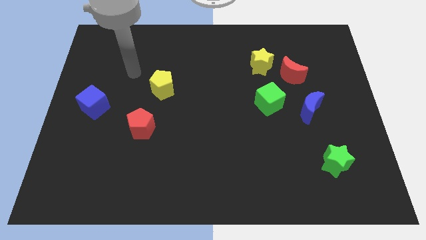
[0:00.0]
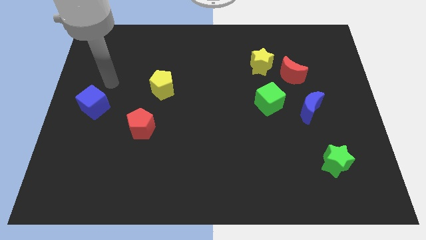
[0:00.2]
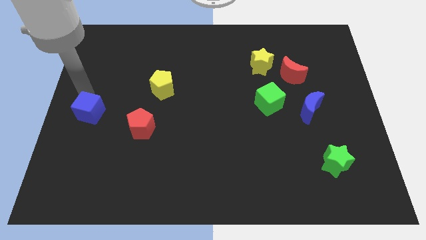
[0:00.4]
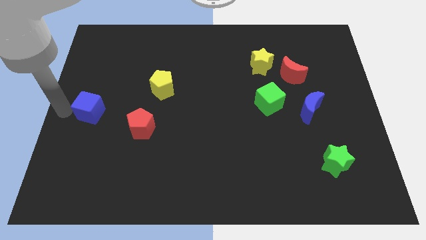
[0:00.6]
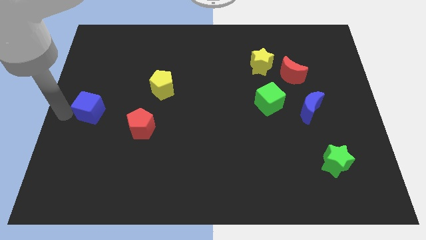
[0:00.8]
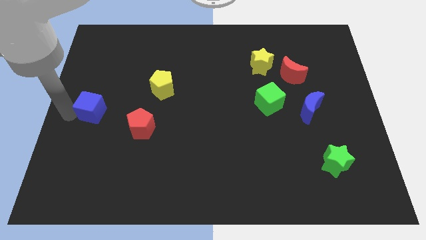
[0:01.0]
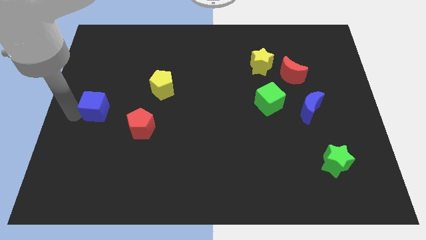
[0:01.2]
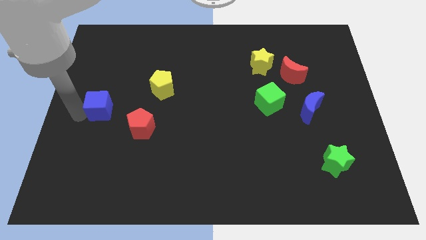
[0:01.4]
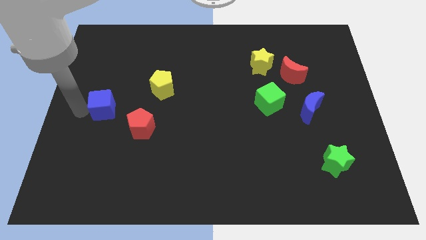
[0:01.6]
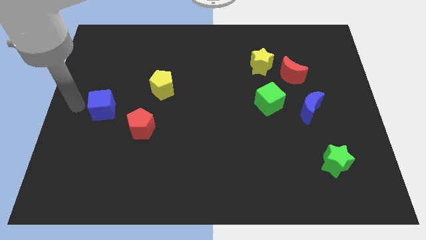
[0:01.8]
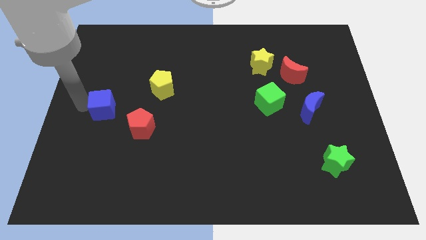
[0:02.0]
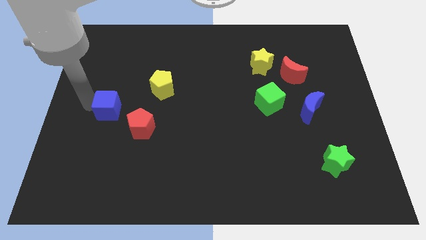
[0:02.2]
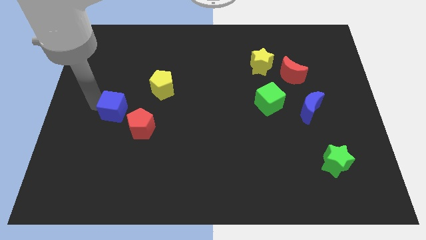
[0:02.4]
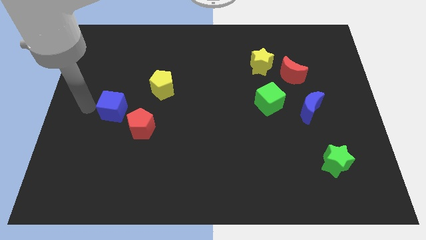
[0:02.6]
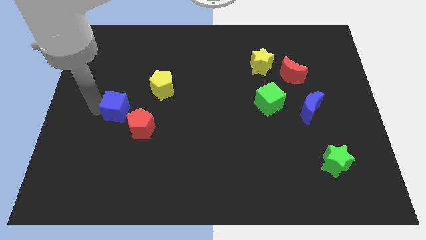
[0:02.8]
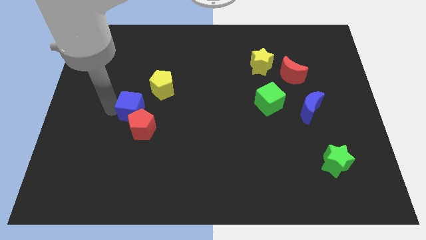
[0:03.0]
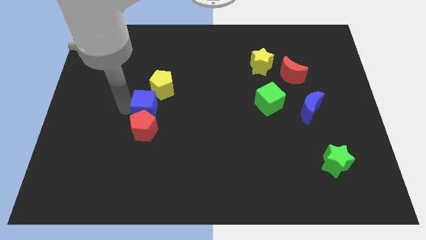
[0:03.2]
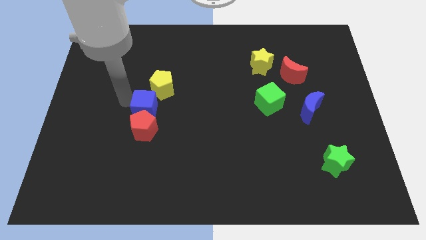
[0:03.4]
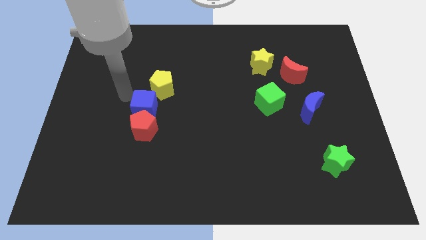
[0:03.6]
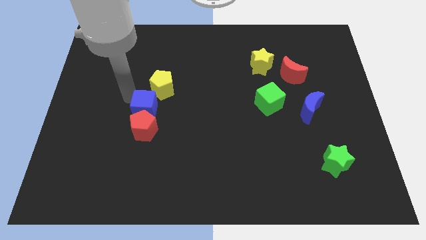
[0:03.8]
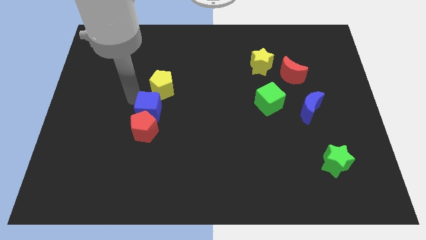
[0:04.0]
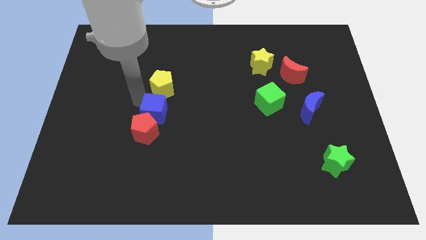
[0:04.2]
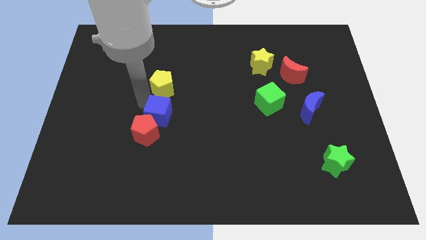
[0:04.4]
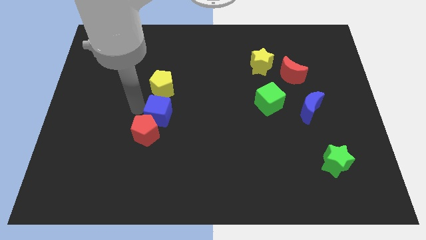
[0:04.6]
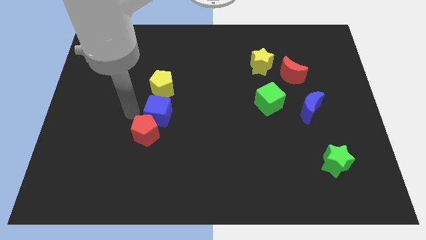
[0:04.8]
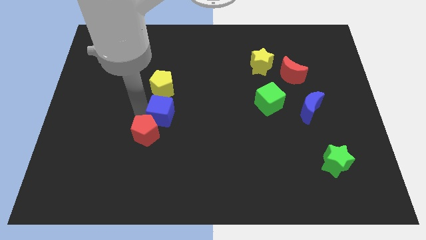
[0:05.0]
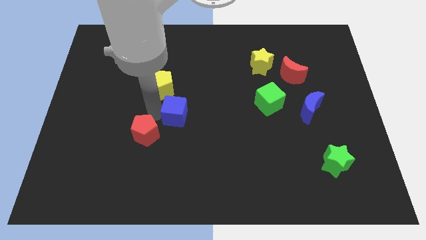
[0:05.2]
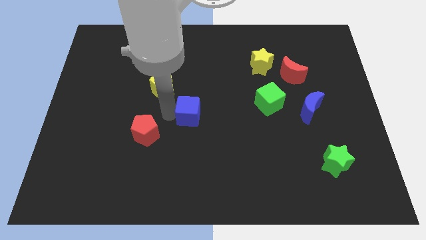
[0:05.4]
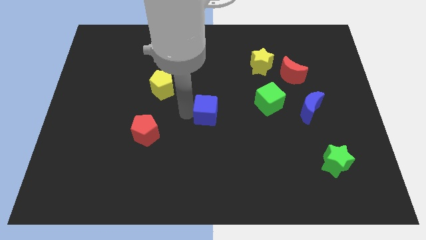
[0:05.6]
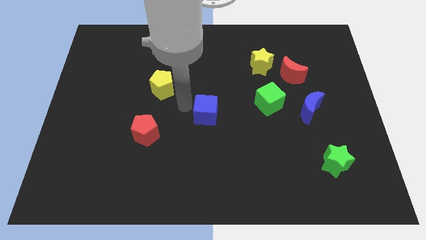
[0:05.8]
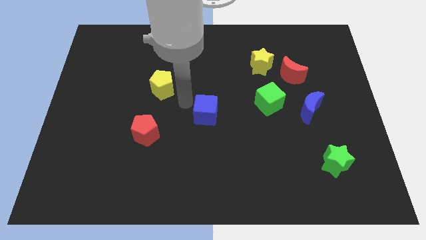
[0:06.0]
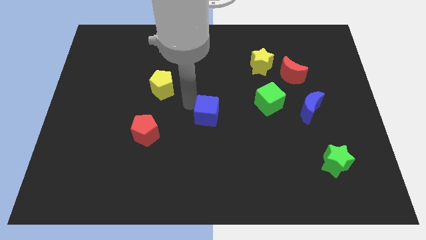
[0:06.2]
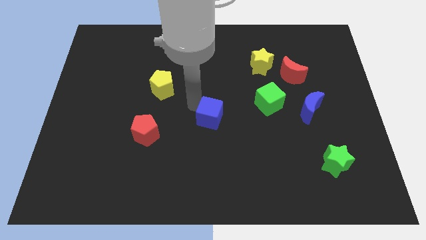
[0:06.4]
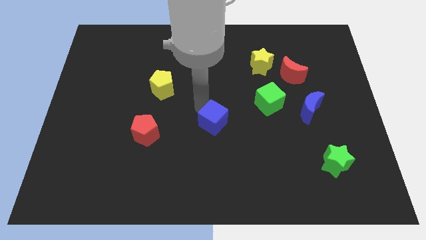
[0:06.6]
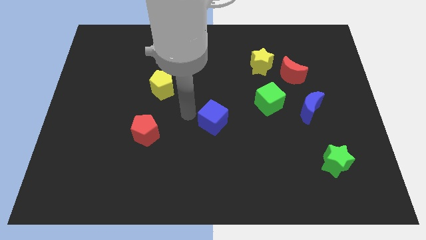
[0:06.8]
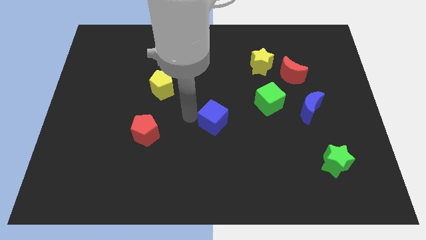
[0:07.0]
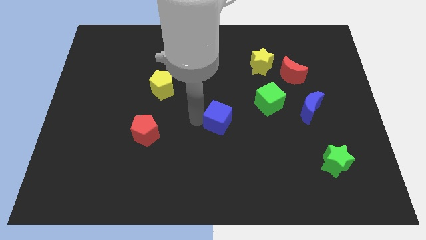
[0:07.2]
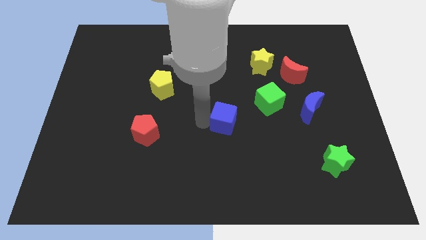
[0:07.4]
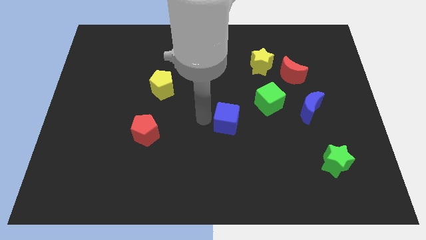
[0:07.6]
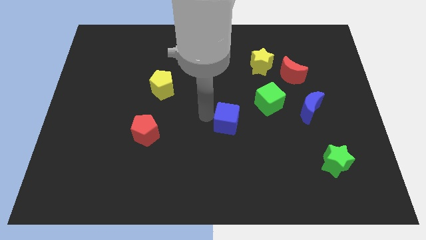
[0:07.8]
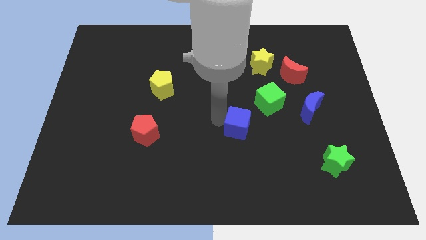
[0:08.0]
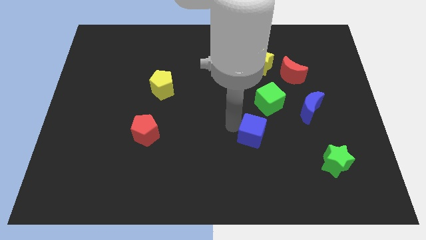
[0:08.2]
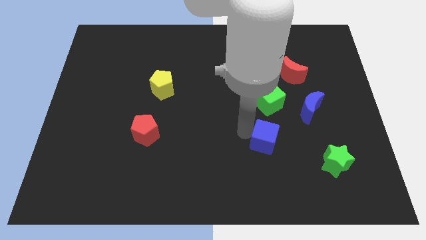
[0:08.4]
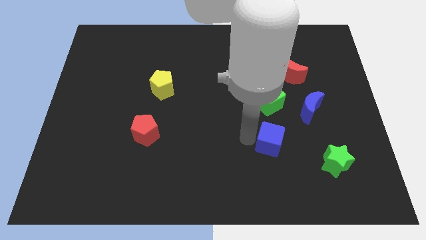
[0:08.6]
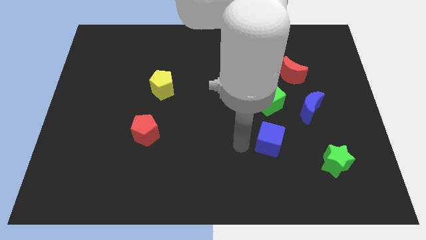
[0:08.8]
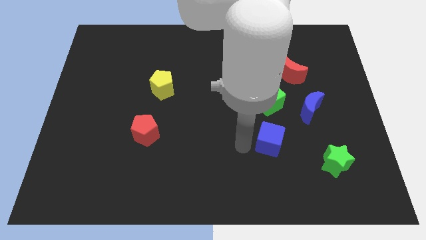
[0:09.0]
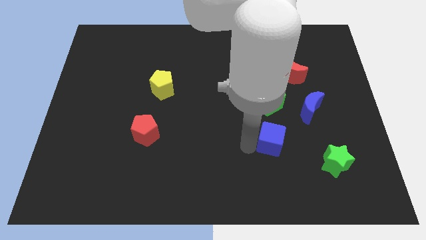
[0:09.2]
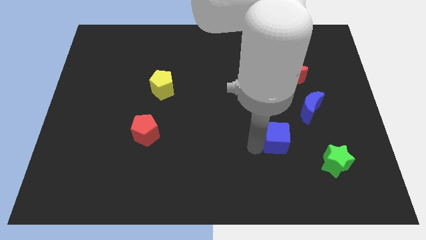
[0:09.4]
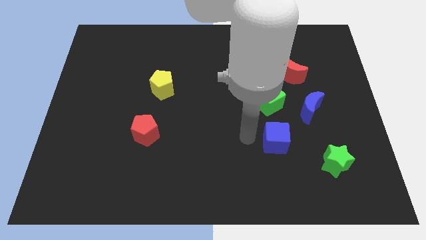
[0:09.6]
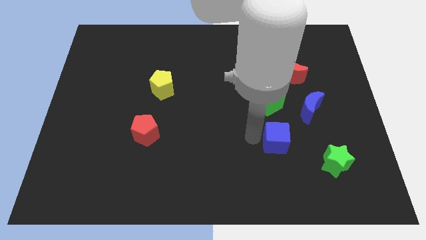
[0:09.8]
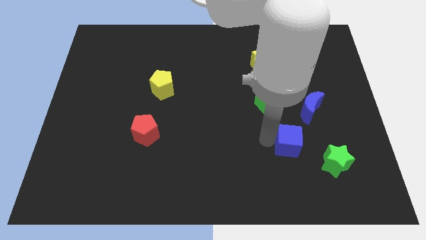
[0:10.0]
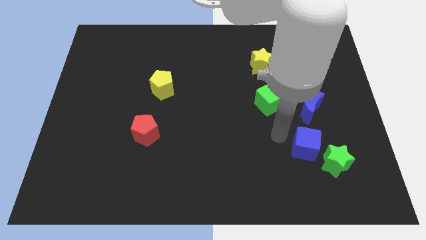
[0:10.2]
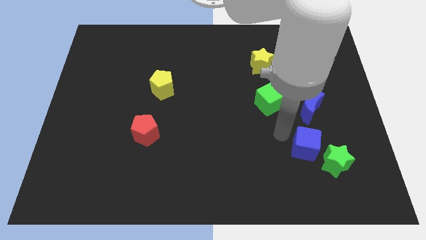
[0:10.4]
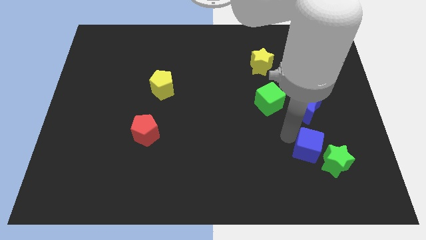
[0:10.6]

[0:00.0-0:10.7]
slide the blue cube to the green star

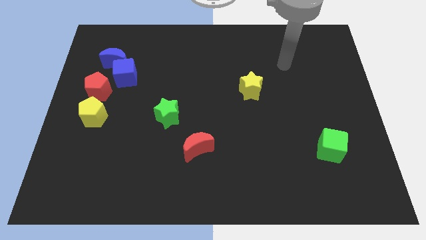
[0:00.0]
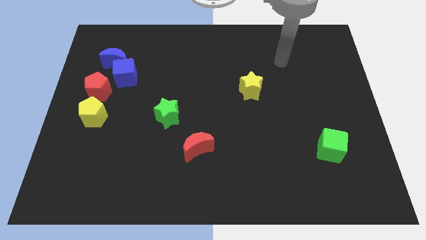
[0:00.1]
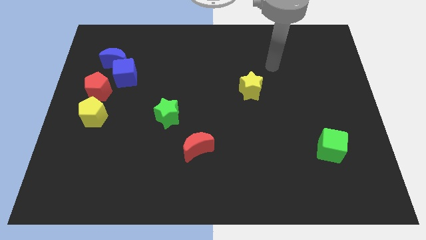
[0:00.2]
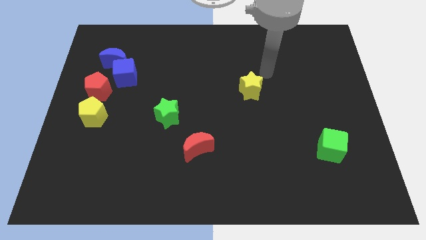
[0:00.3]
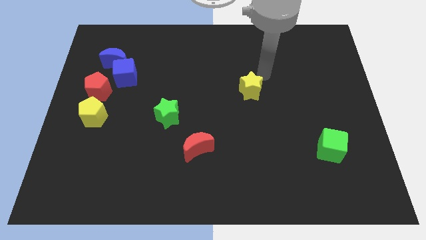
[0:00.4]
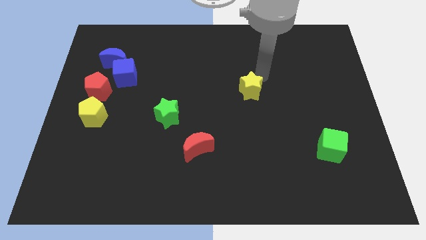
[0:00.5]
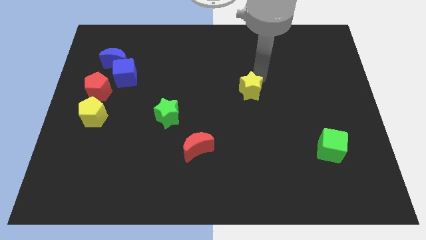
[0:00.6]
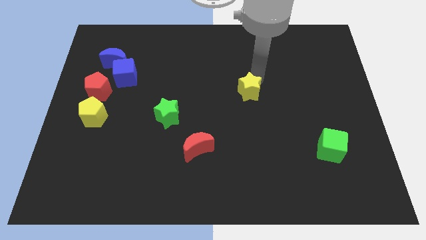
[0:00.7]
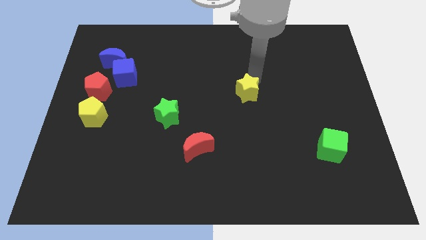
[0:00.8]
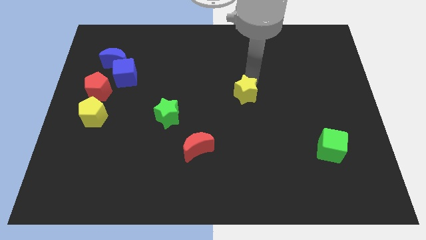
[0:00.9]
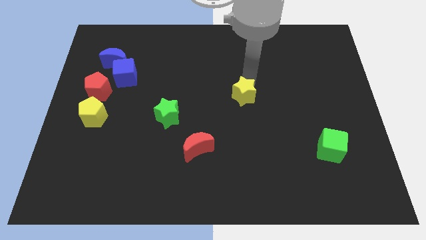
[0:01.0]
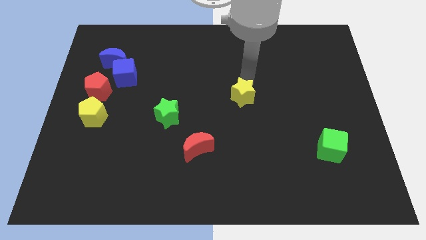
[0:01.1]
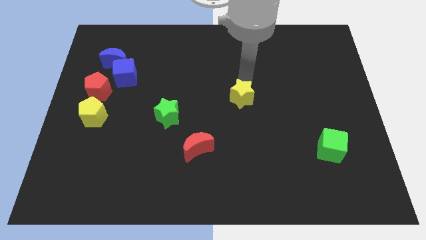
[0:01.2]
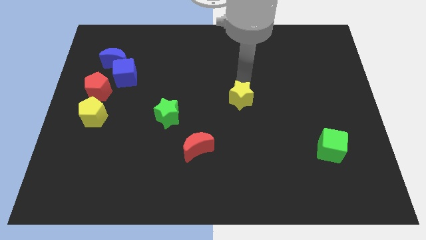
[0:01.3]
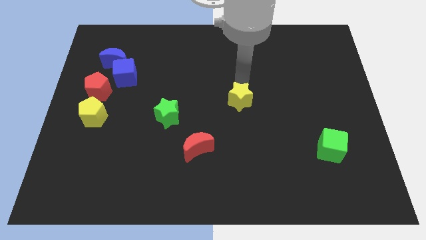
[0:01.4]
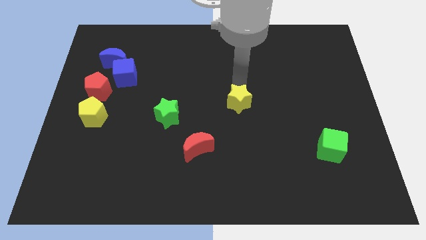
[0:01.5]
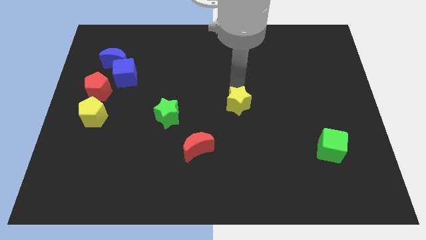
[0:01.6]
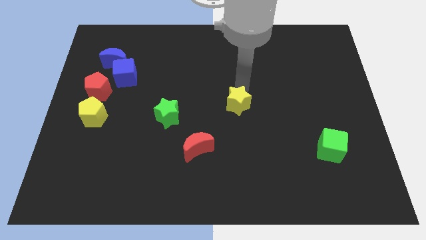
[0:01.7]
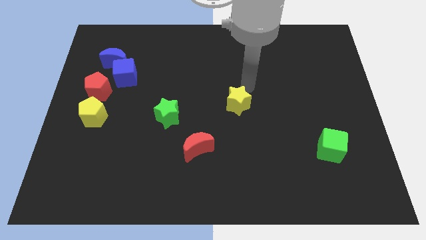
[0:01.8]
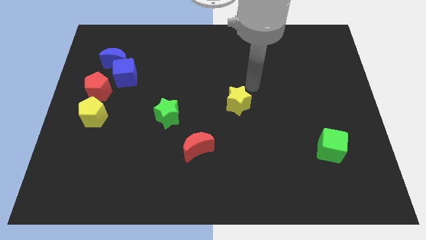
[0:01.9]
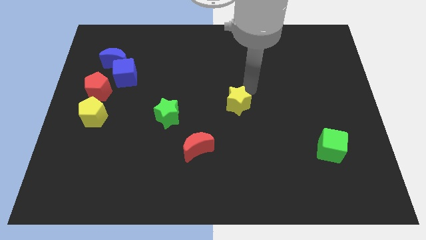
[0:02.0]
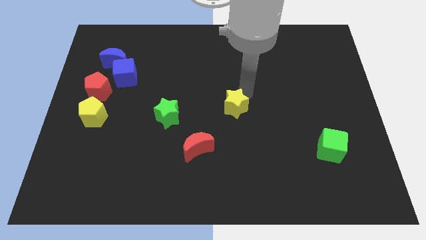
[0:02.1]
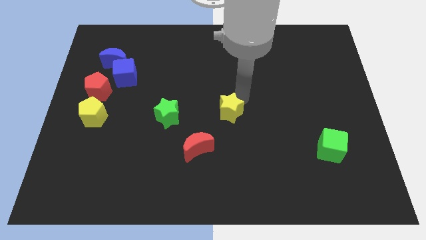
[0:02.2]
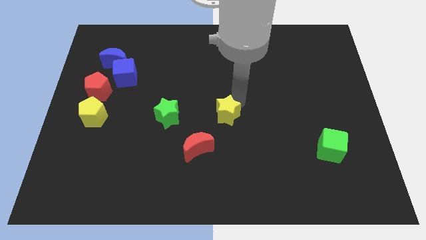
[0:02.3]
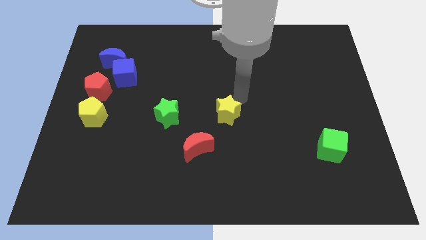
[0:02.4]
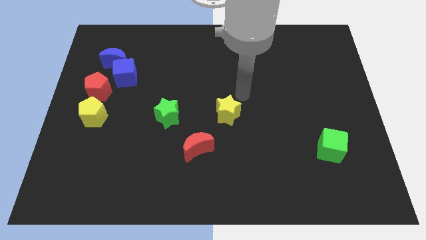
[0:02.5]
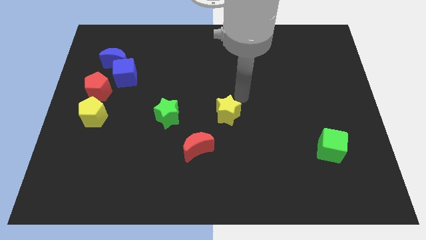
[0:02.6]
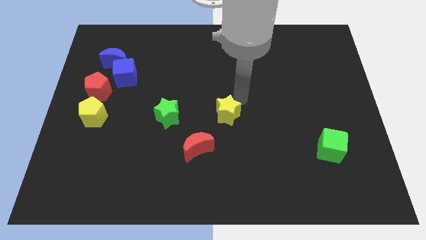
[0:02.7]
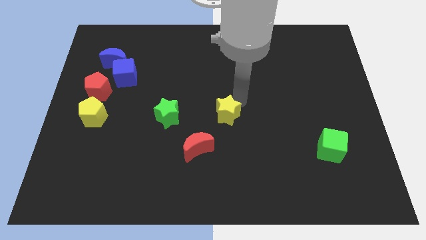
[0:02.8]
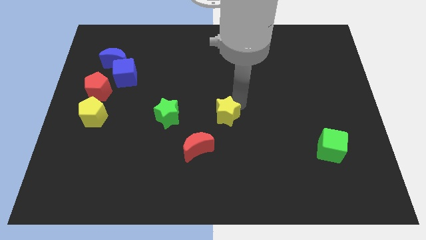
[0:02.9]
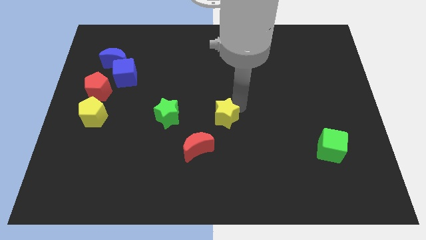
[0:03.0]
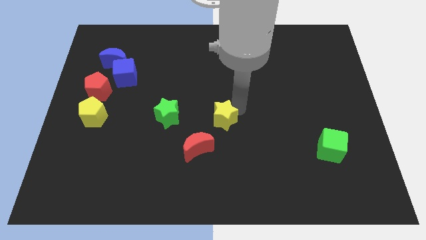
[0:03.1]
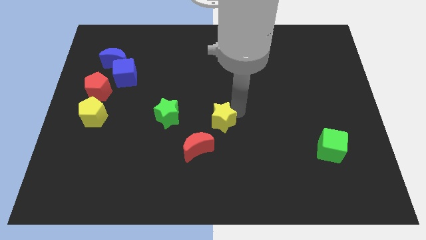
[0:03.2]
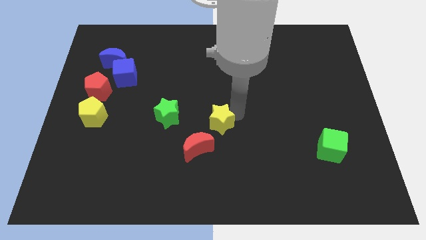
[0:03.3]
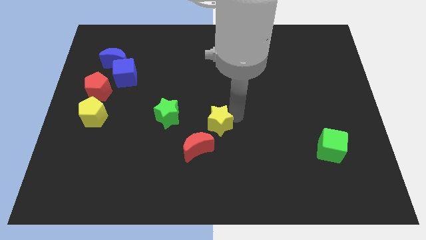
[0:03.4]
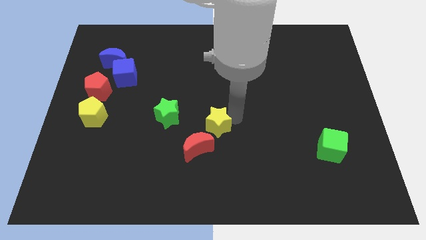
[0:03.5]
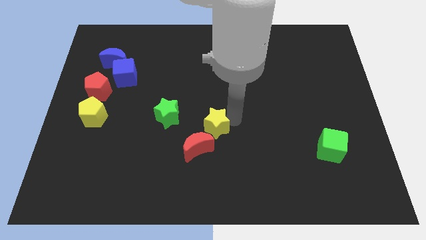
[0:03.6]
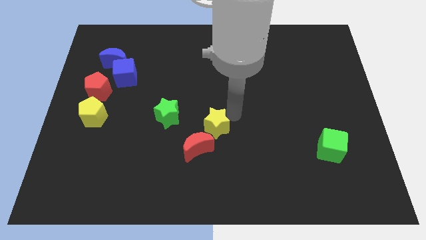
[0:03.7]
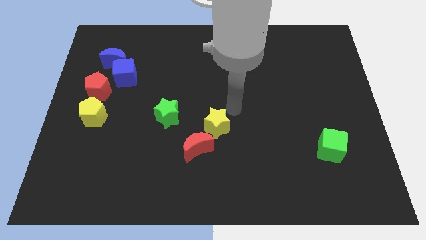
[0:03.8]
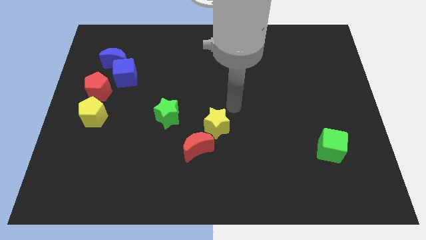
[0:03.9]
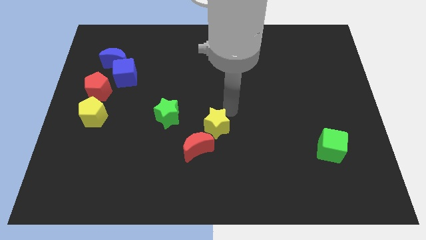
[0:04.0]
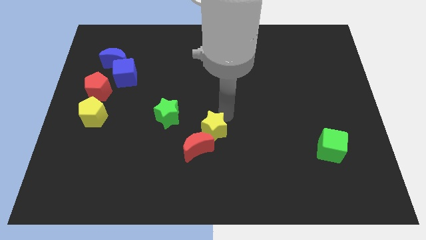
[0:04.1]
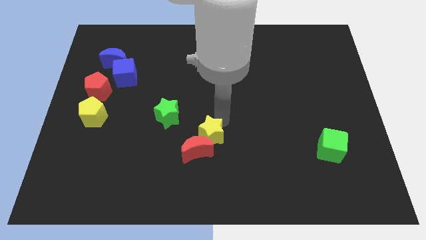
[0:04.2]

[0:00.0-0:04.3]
put the yellow star to the red moon
